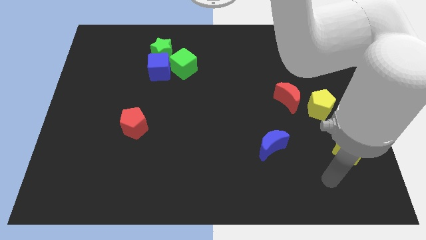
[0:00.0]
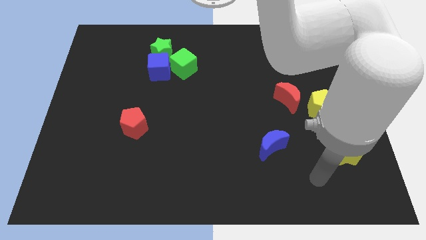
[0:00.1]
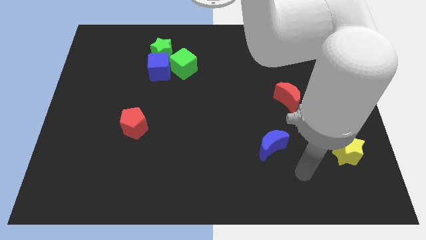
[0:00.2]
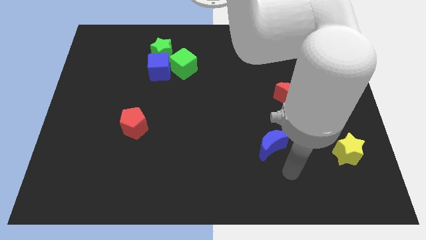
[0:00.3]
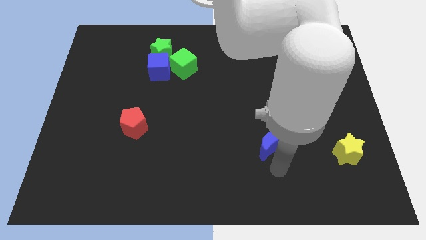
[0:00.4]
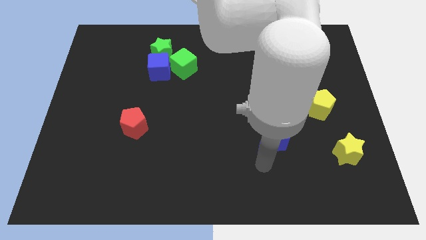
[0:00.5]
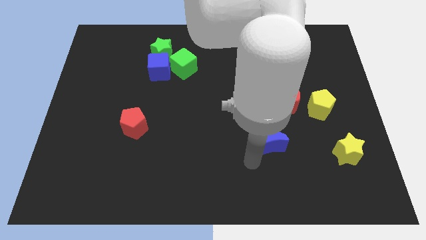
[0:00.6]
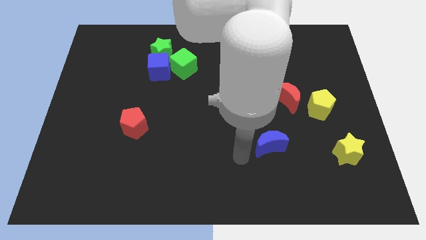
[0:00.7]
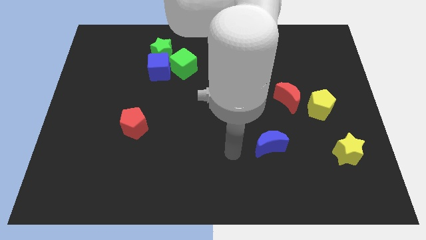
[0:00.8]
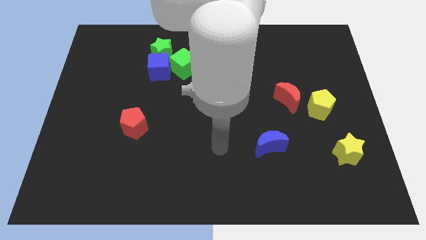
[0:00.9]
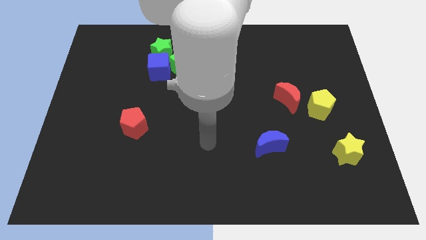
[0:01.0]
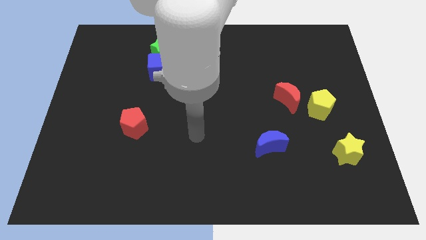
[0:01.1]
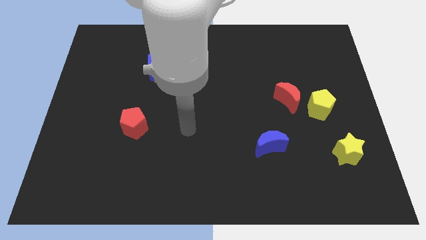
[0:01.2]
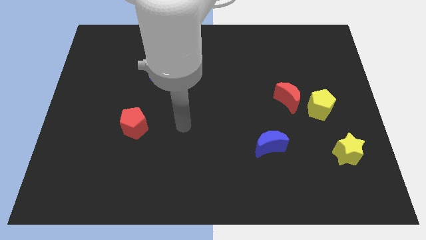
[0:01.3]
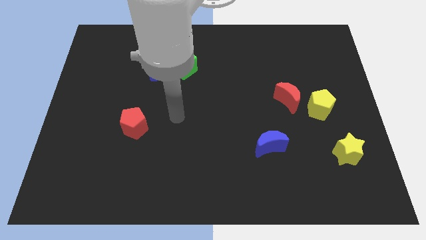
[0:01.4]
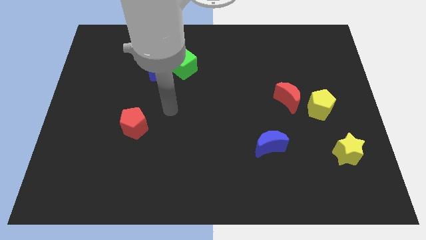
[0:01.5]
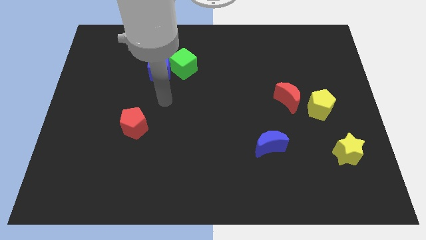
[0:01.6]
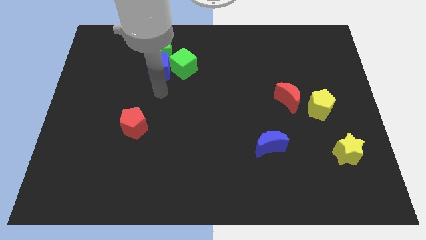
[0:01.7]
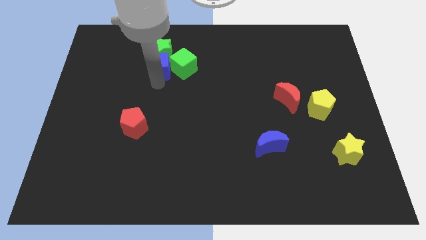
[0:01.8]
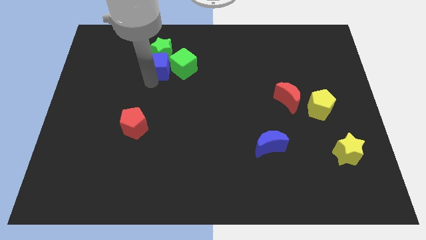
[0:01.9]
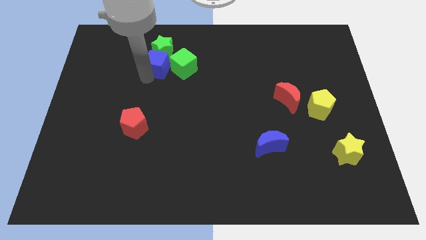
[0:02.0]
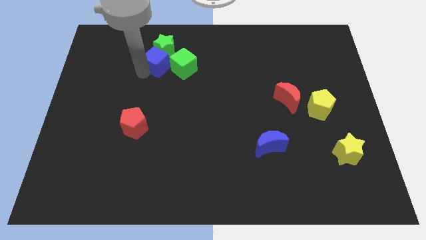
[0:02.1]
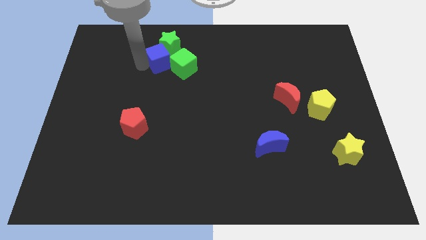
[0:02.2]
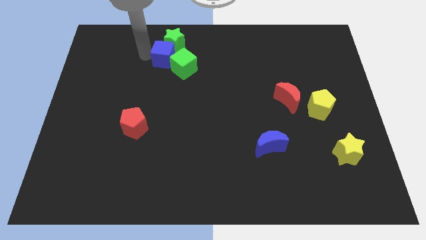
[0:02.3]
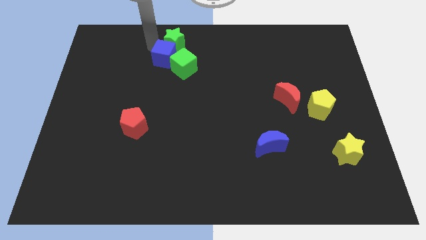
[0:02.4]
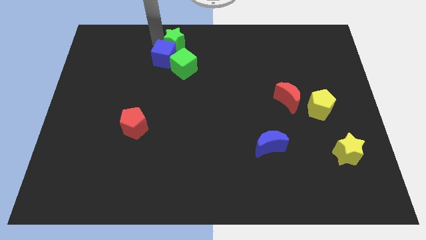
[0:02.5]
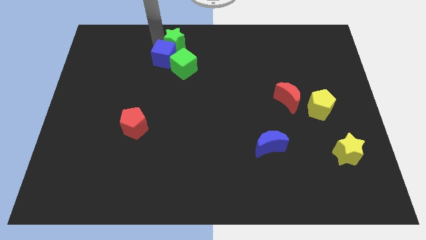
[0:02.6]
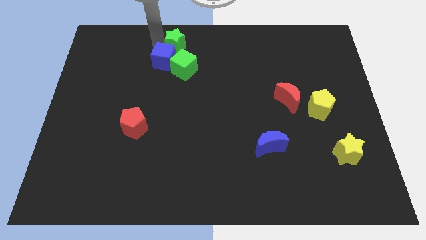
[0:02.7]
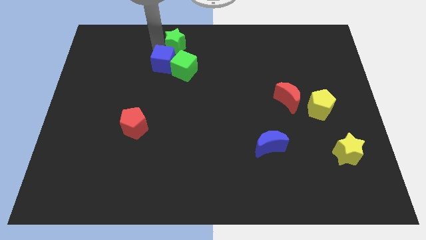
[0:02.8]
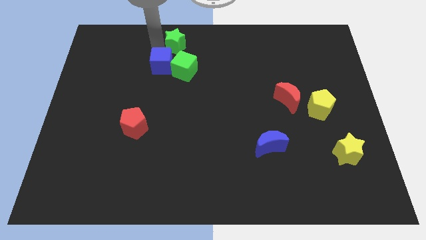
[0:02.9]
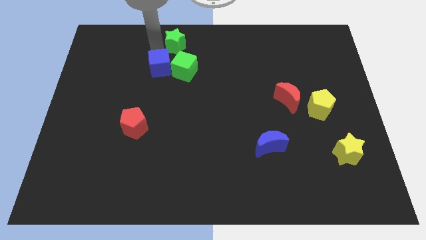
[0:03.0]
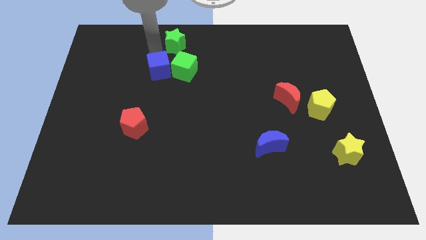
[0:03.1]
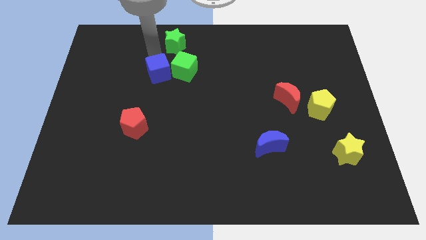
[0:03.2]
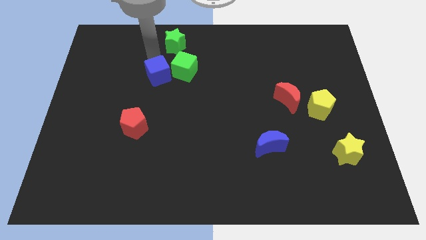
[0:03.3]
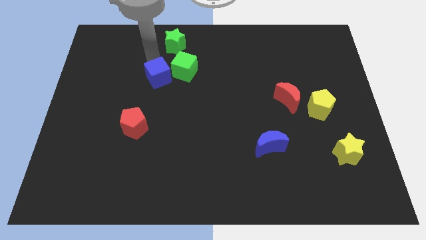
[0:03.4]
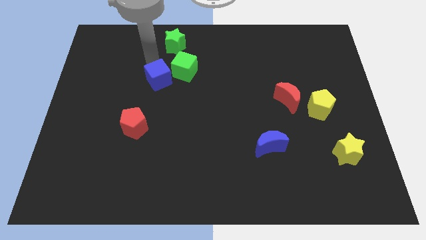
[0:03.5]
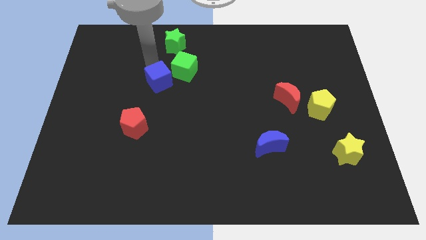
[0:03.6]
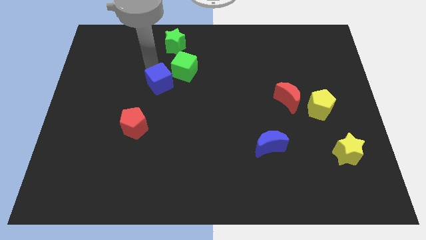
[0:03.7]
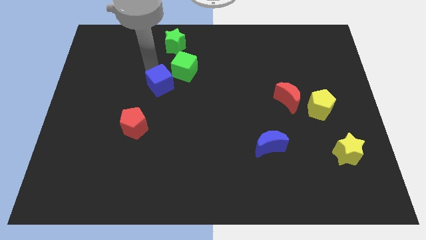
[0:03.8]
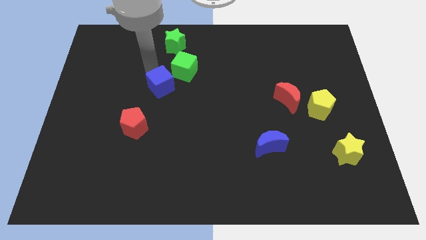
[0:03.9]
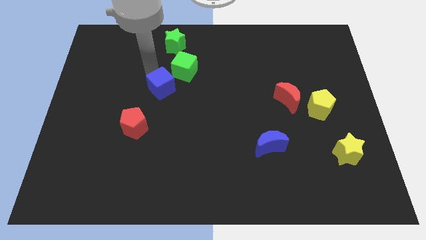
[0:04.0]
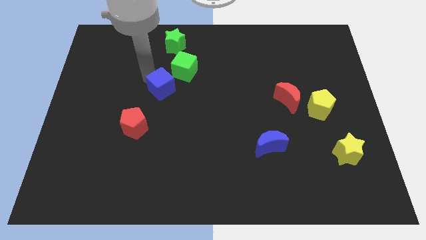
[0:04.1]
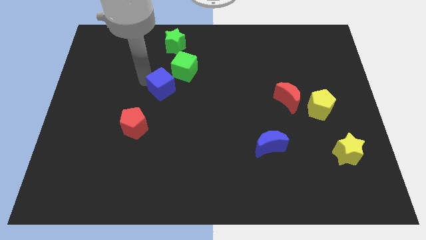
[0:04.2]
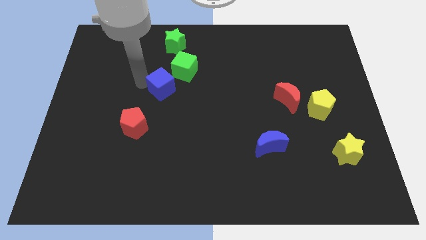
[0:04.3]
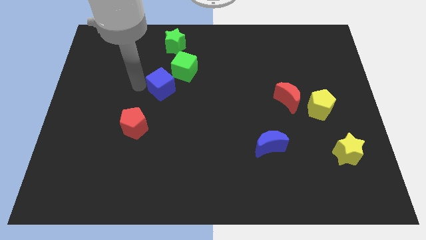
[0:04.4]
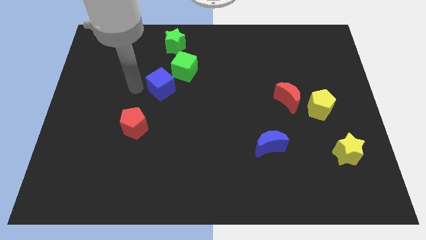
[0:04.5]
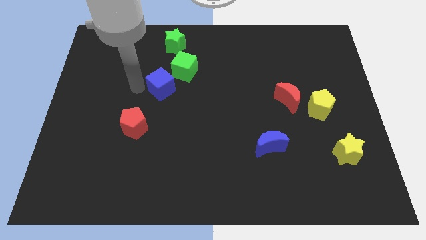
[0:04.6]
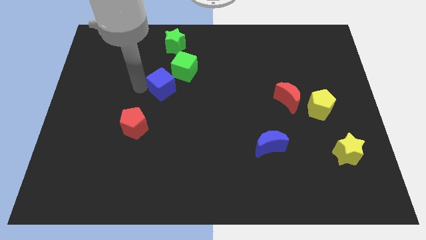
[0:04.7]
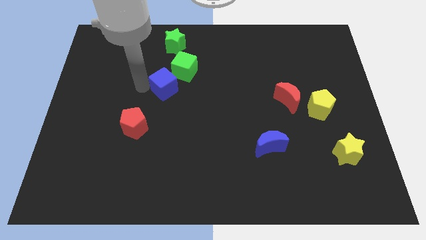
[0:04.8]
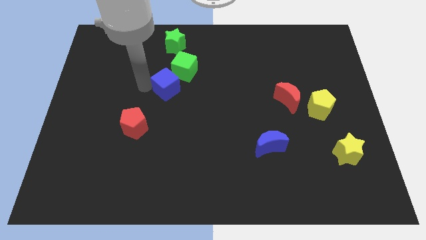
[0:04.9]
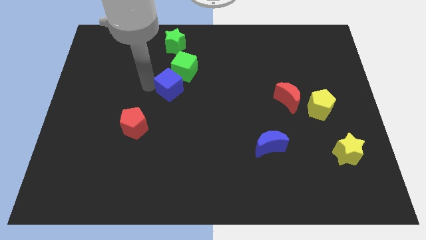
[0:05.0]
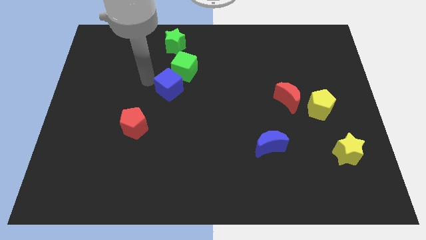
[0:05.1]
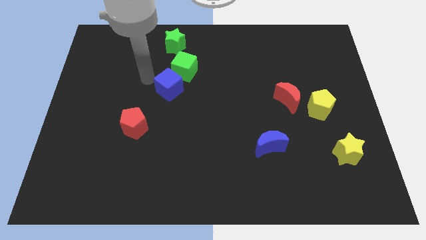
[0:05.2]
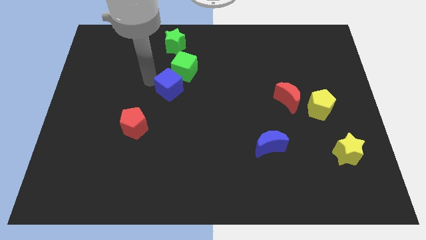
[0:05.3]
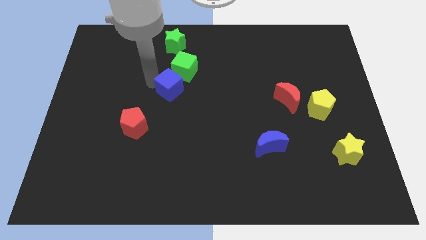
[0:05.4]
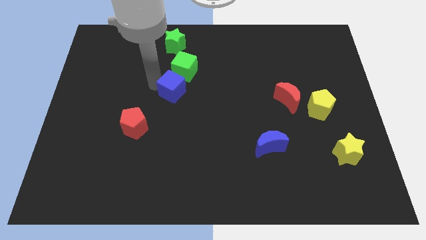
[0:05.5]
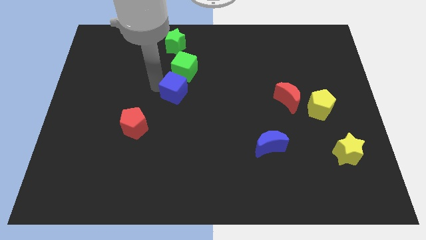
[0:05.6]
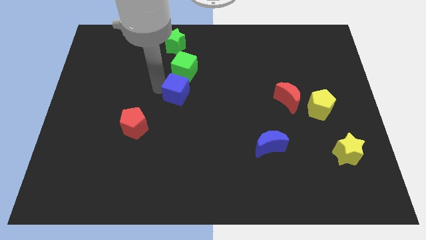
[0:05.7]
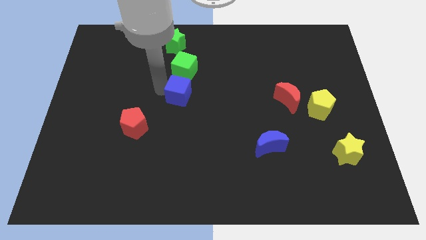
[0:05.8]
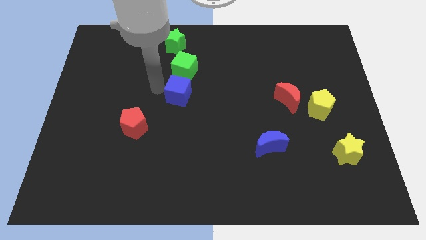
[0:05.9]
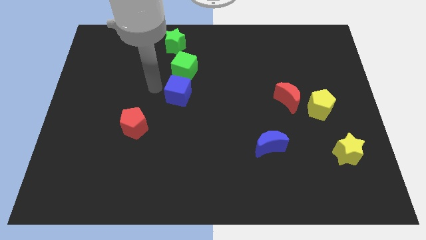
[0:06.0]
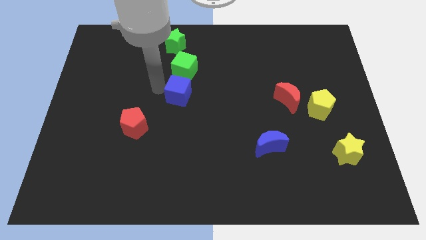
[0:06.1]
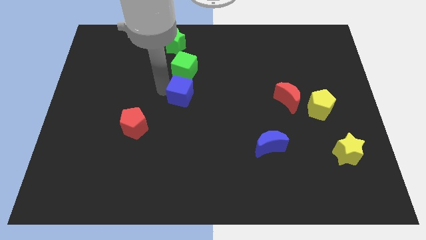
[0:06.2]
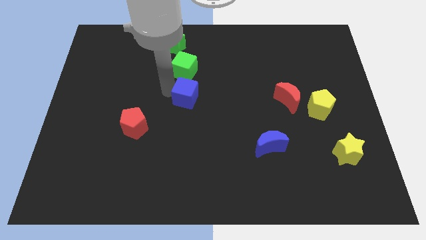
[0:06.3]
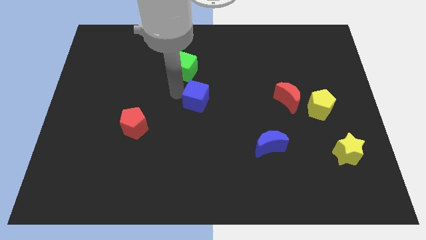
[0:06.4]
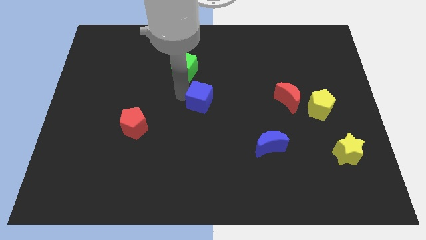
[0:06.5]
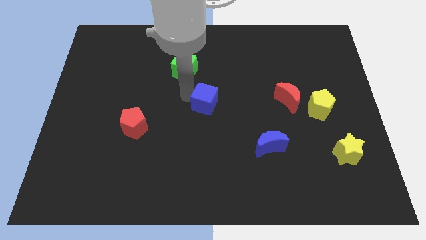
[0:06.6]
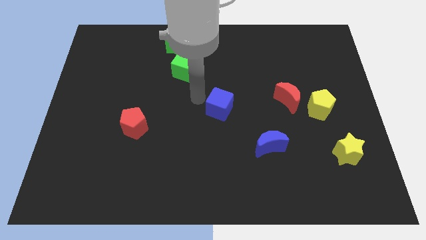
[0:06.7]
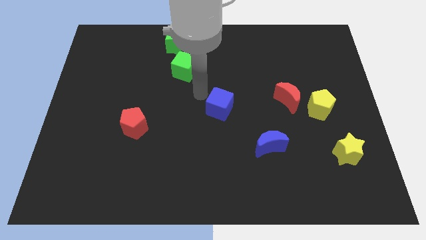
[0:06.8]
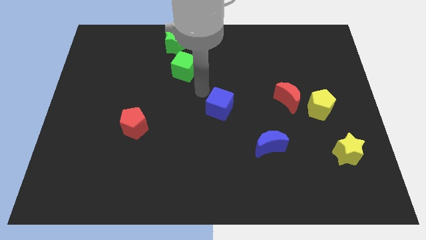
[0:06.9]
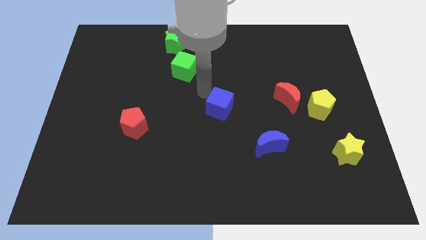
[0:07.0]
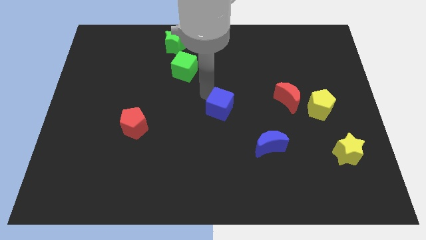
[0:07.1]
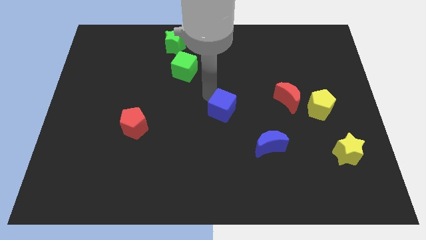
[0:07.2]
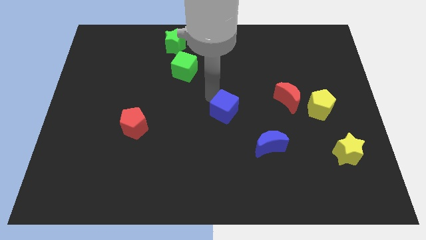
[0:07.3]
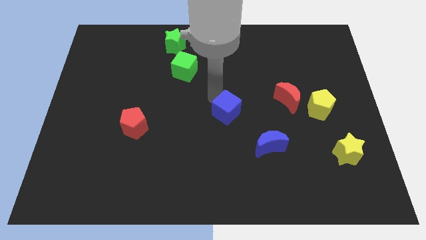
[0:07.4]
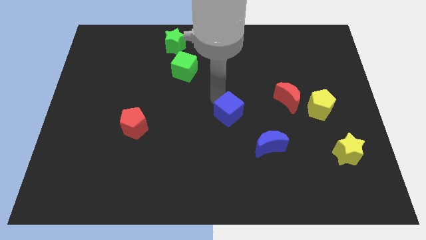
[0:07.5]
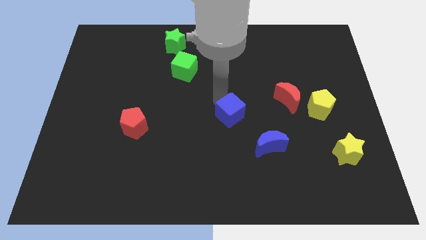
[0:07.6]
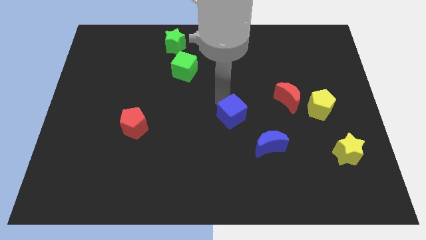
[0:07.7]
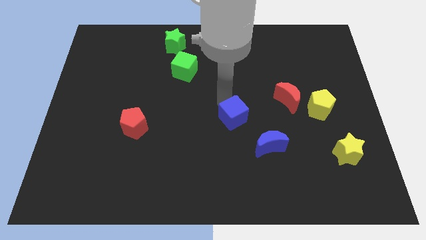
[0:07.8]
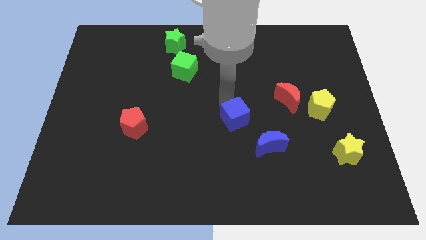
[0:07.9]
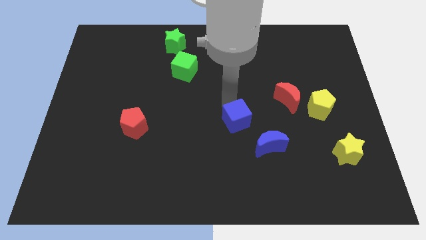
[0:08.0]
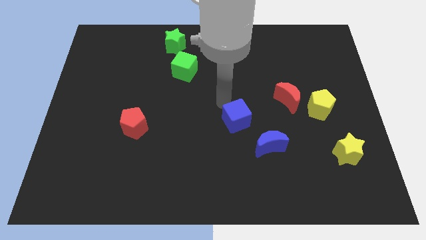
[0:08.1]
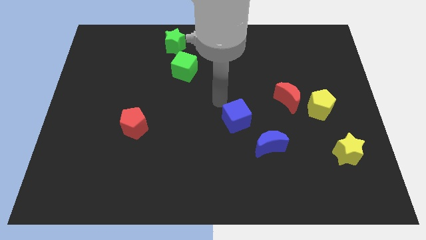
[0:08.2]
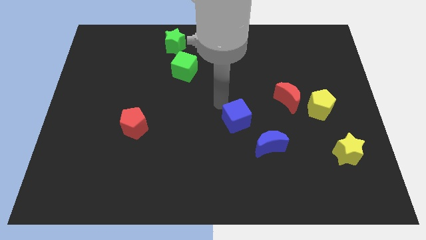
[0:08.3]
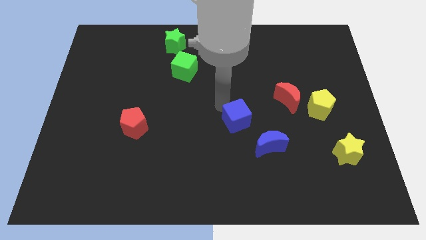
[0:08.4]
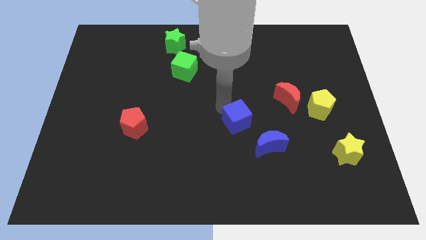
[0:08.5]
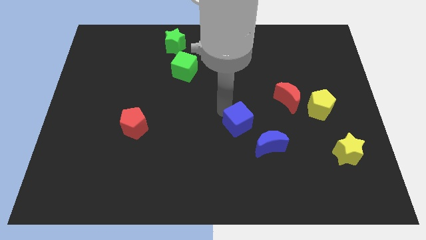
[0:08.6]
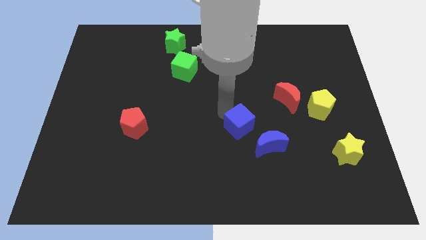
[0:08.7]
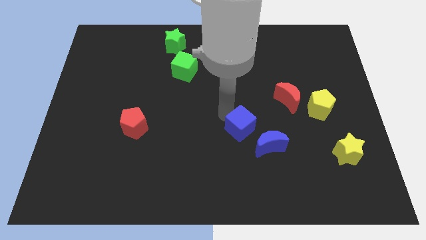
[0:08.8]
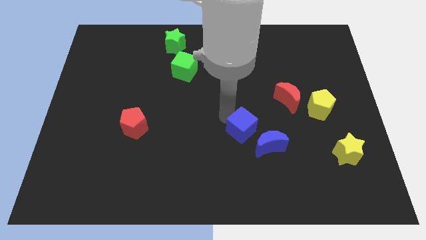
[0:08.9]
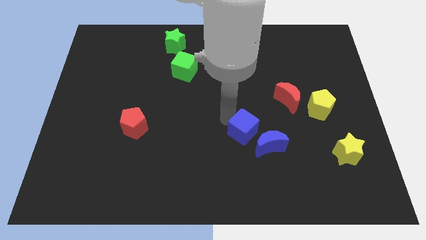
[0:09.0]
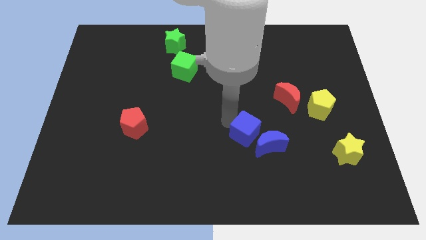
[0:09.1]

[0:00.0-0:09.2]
move the blue cube towards the blue moon
